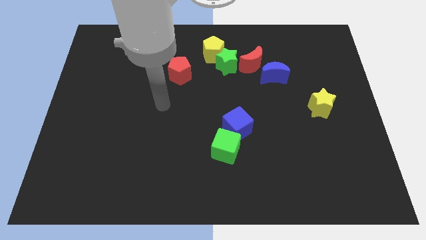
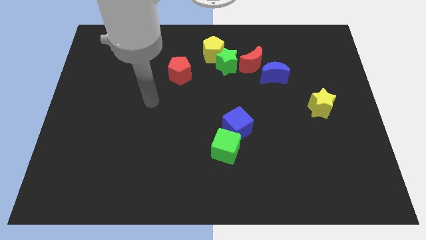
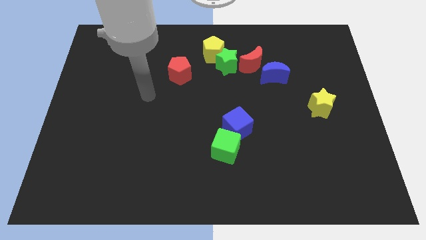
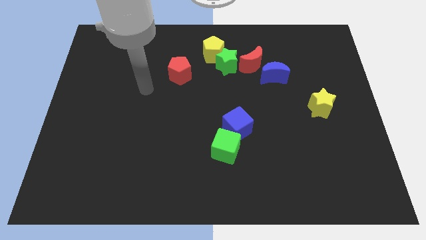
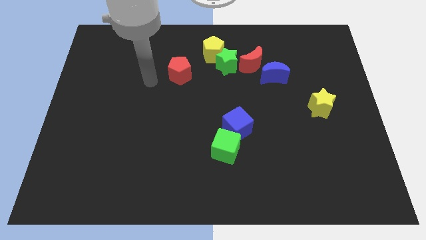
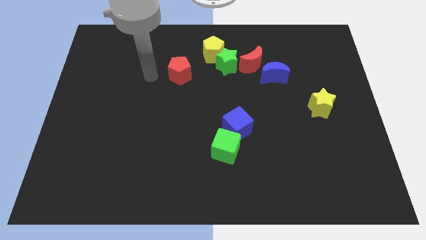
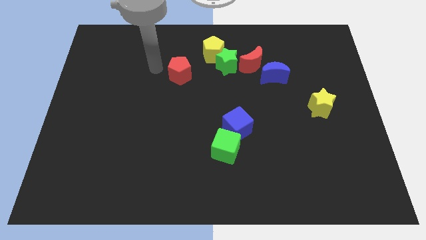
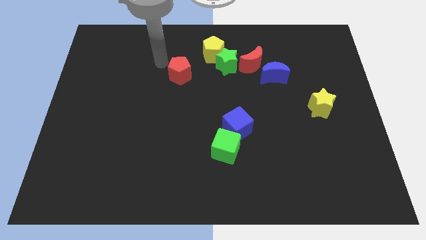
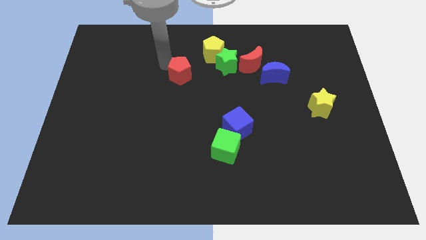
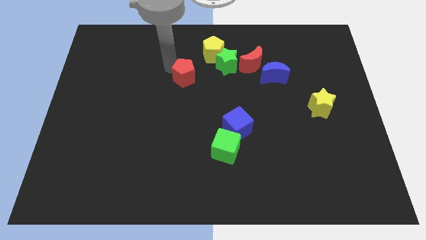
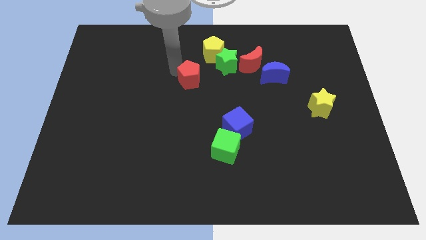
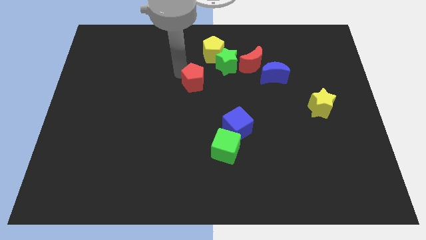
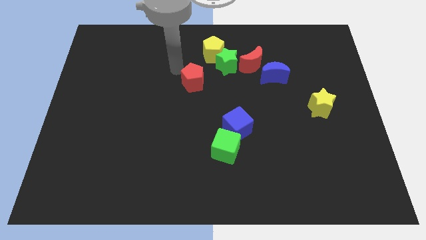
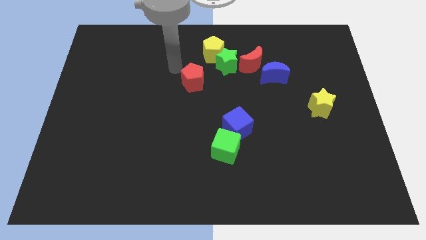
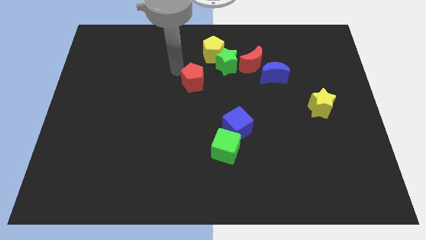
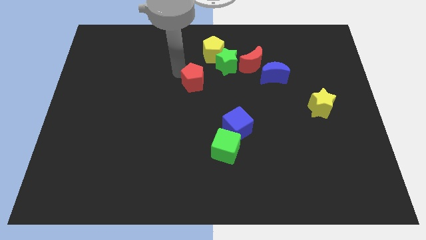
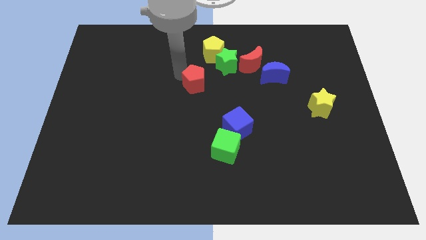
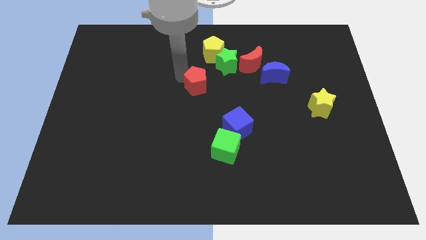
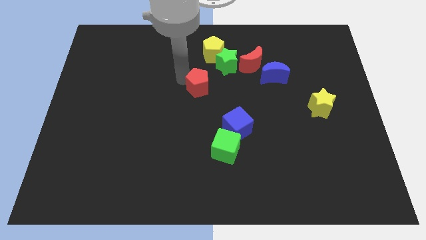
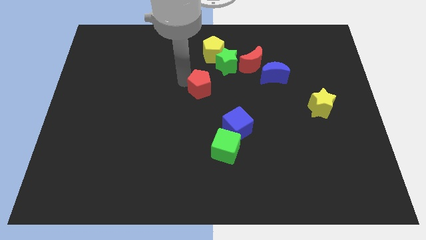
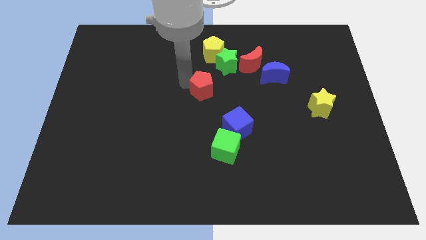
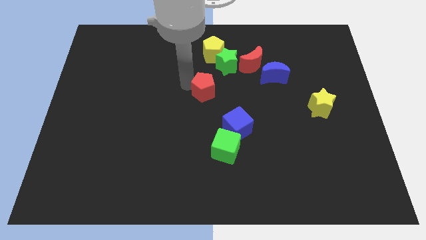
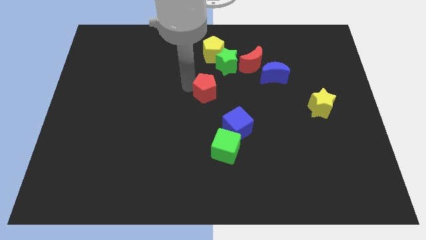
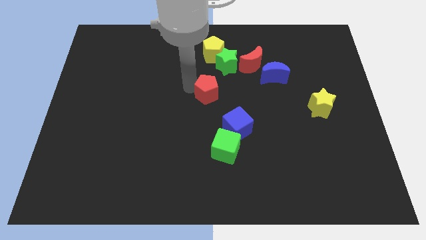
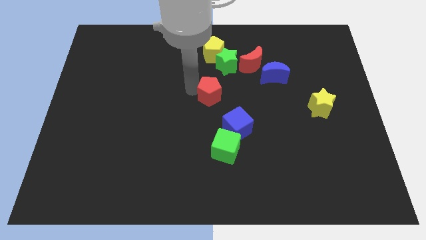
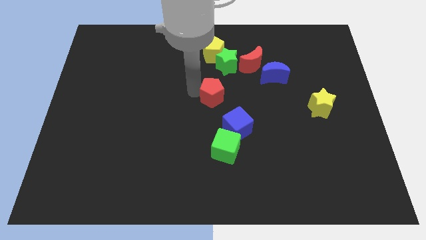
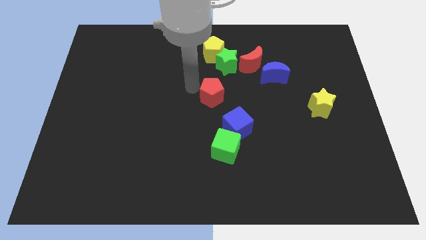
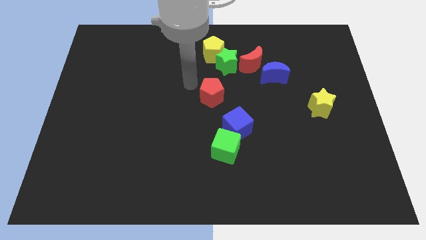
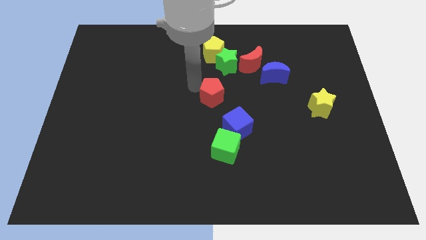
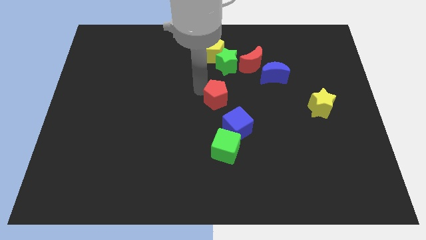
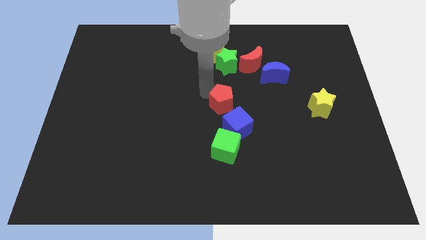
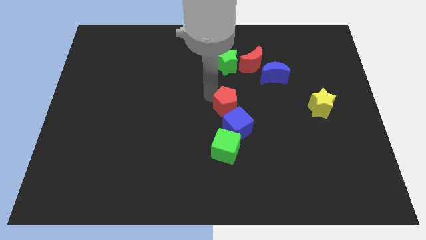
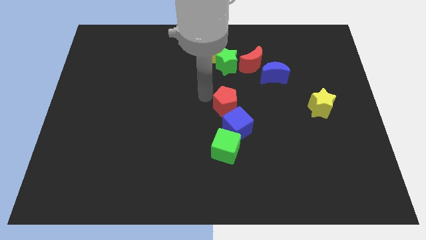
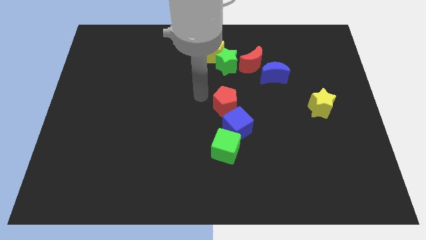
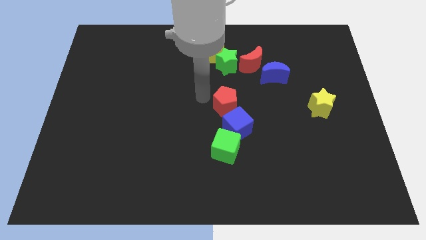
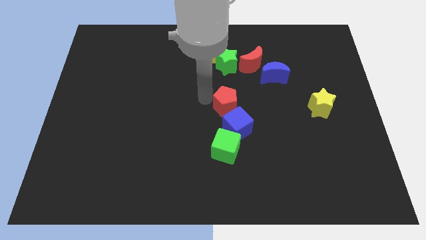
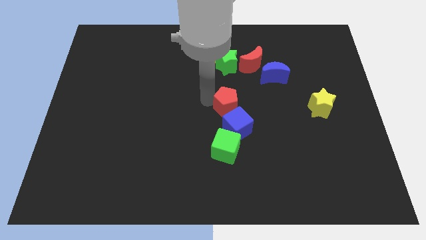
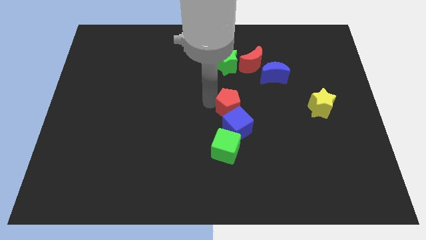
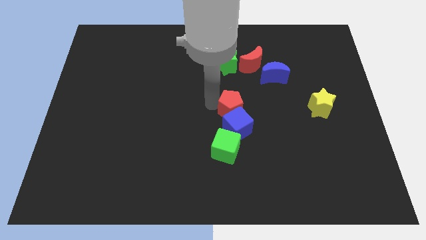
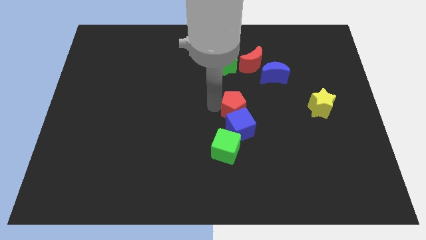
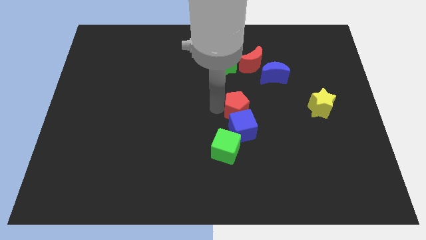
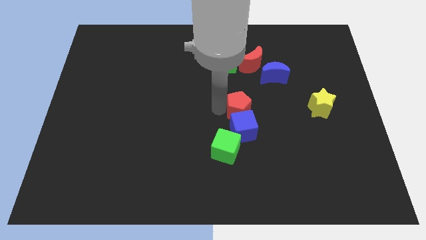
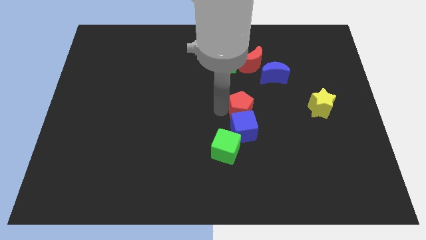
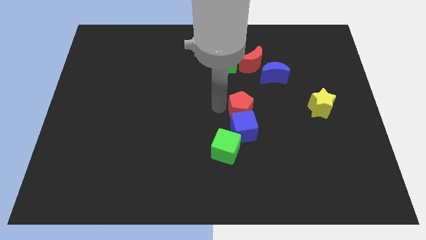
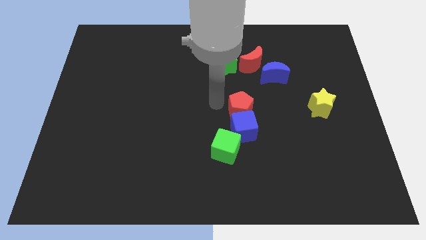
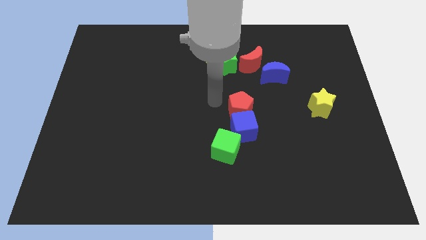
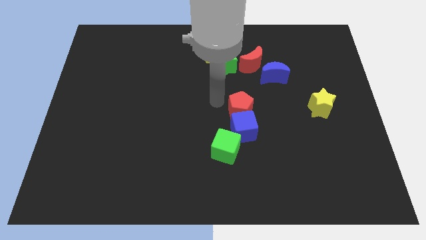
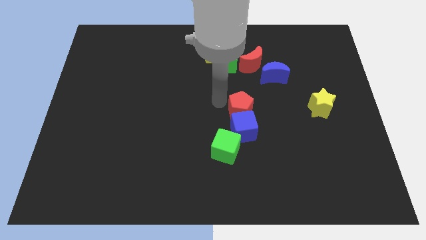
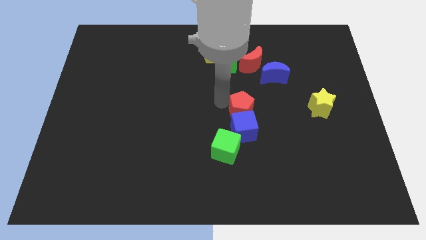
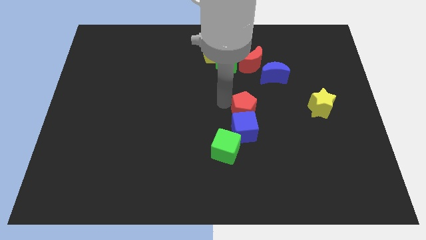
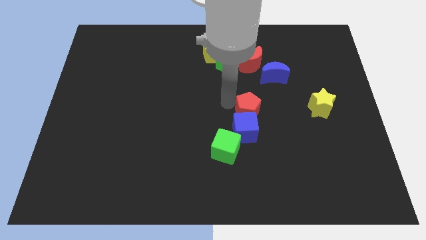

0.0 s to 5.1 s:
move the red pentagon down and then right

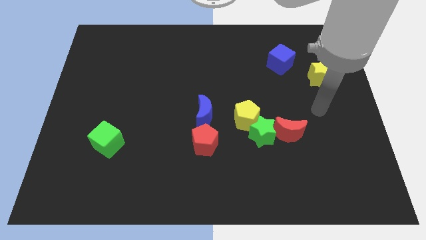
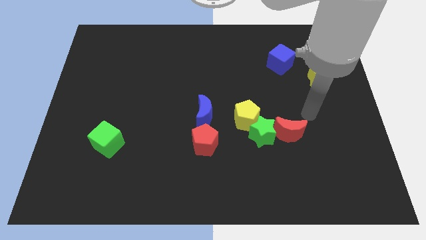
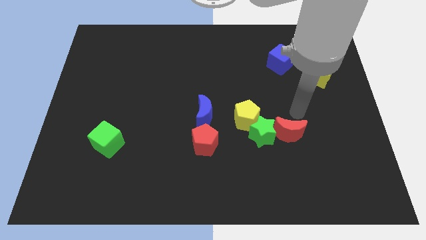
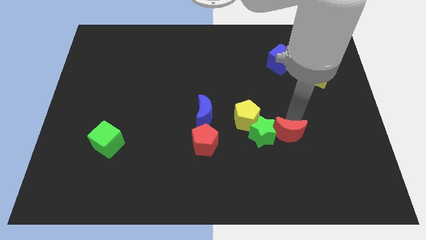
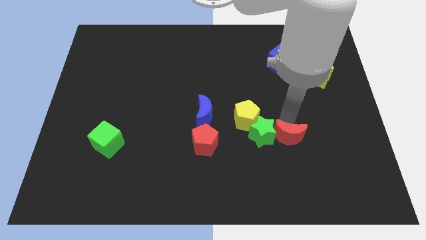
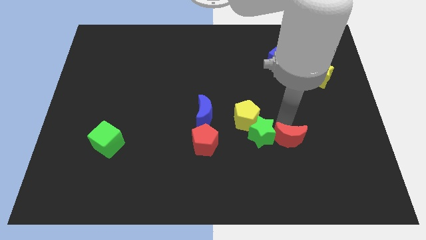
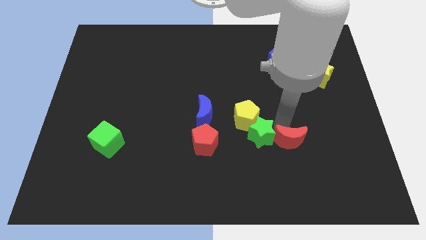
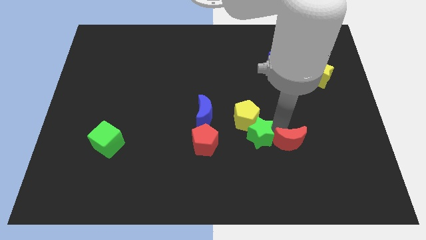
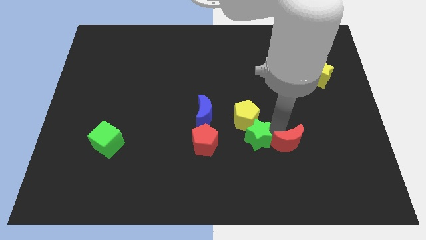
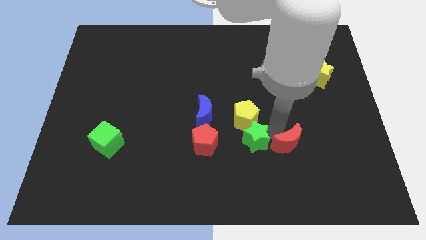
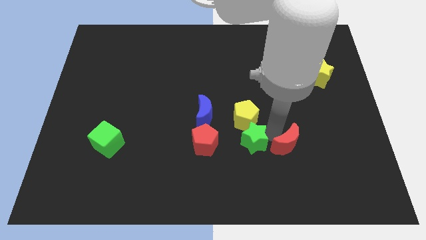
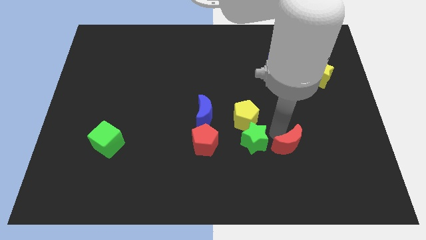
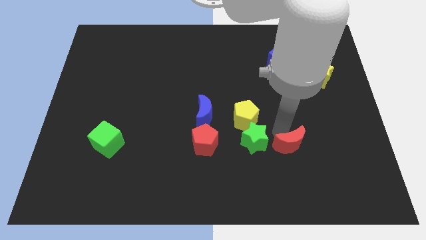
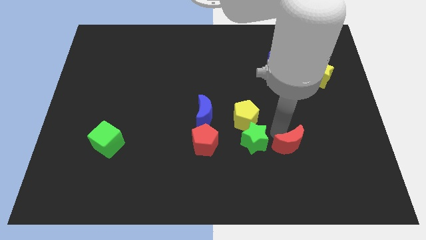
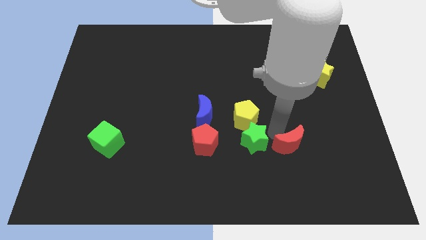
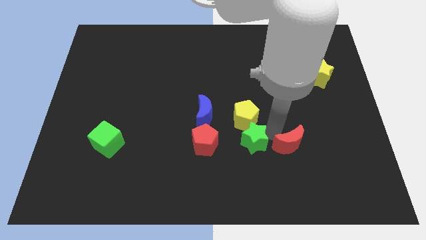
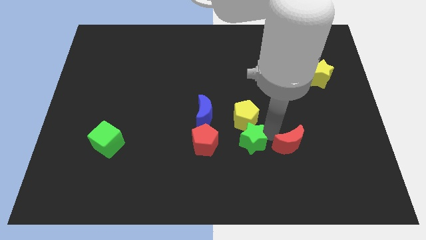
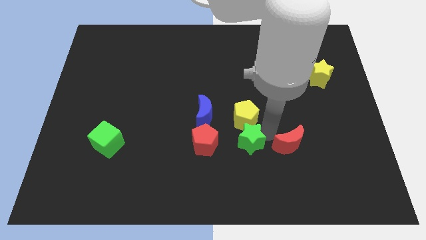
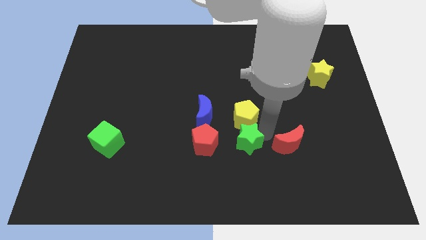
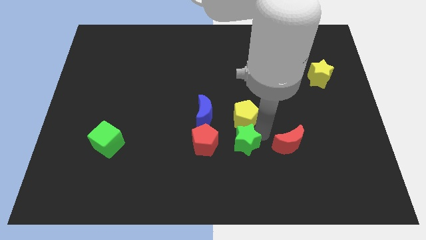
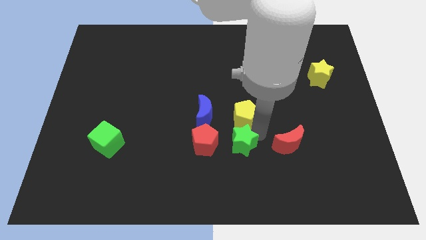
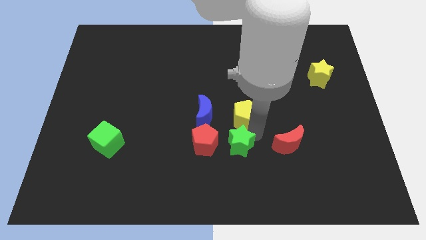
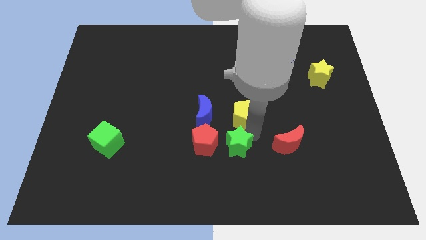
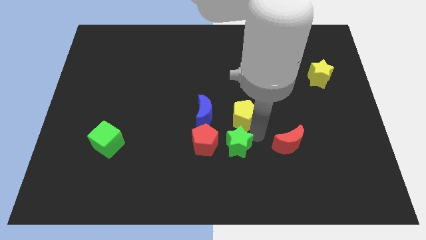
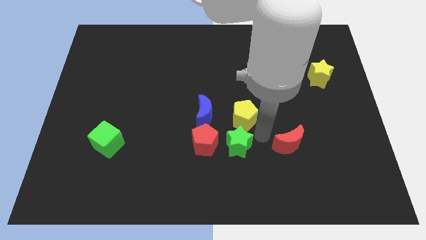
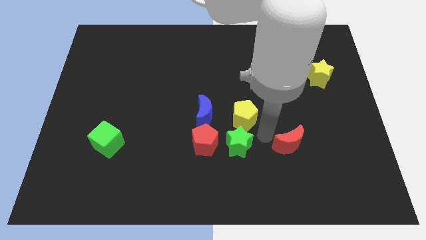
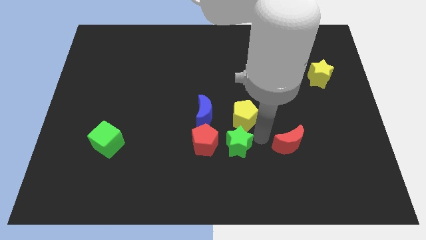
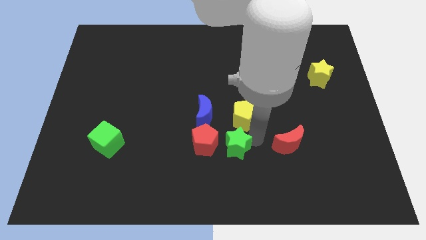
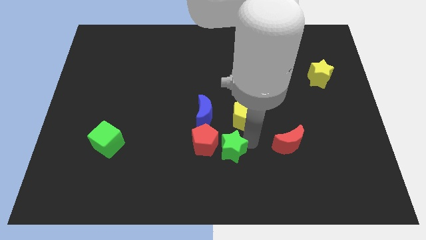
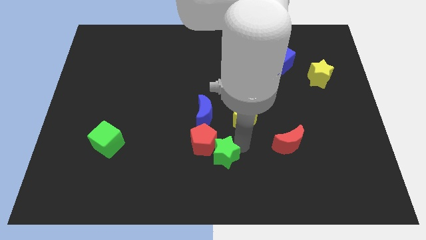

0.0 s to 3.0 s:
slide the green star somewhat left

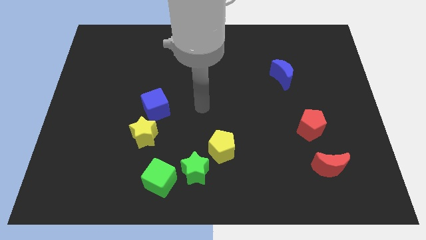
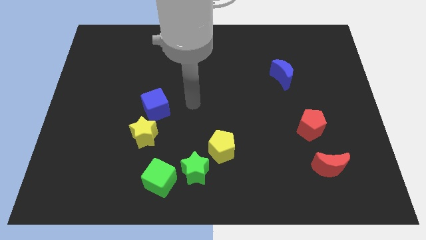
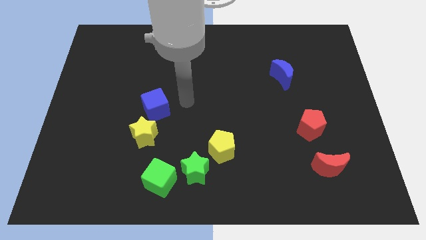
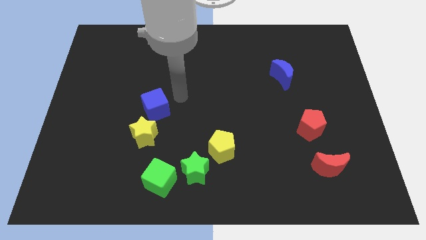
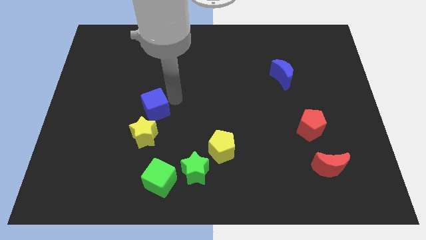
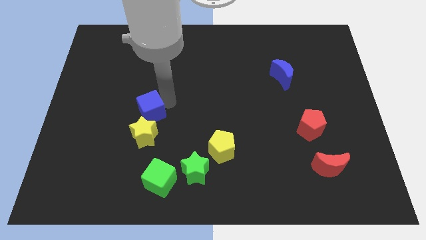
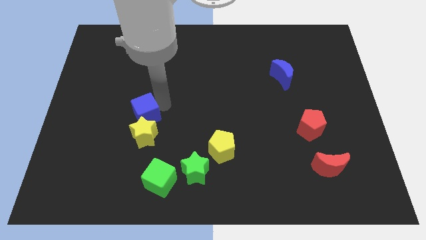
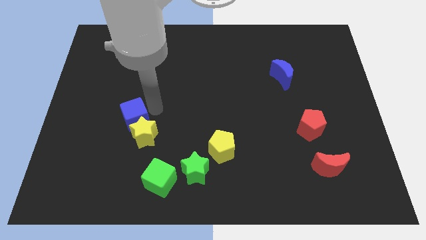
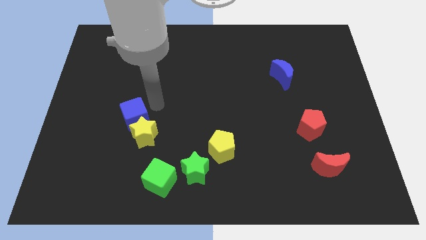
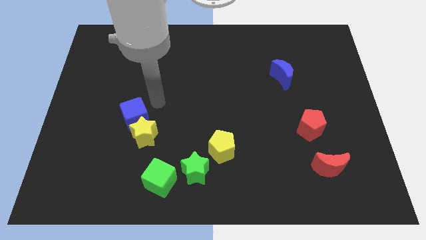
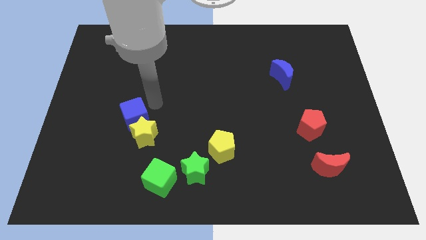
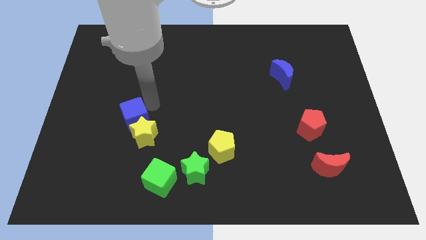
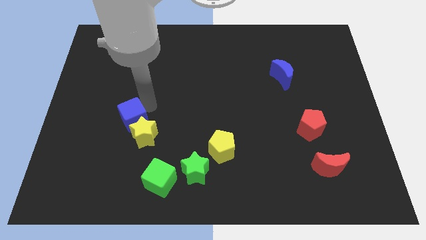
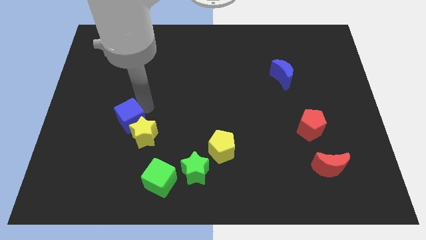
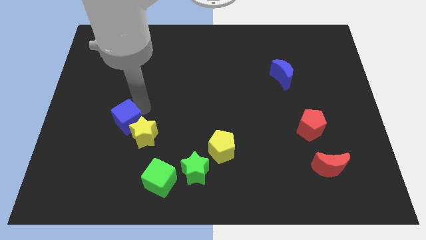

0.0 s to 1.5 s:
push the blue cube somewhat downwards and left
